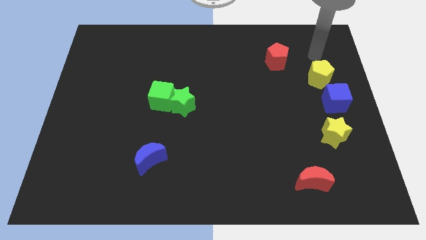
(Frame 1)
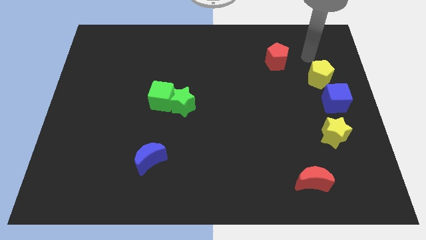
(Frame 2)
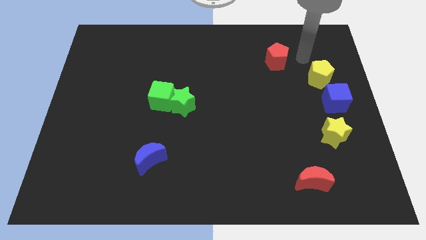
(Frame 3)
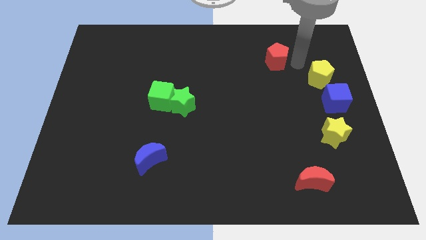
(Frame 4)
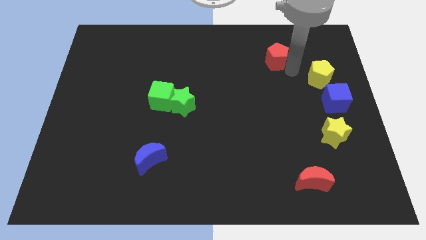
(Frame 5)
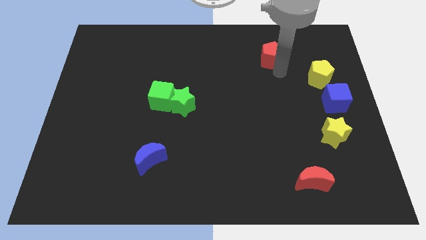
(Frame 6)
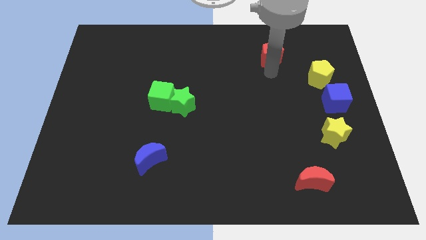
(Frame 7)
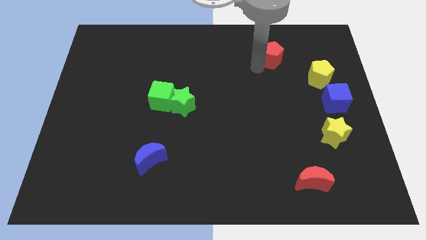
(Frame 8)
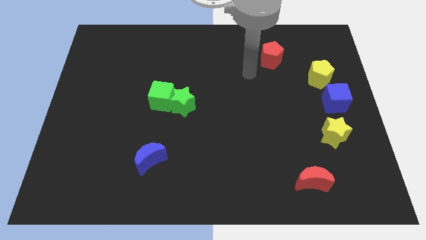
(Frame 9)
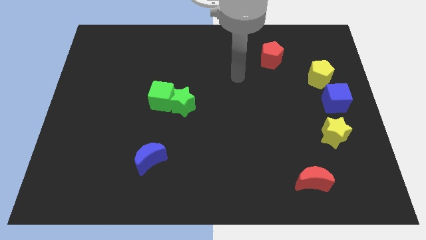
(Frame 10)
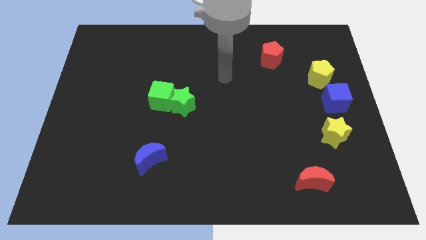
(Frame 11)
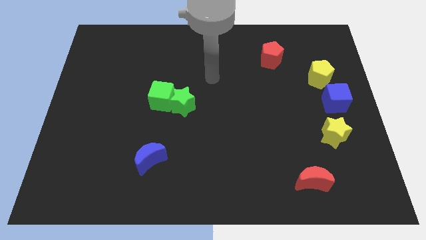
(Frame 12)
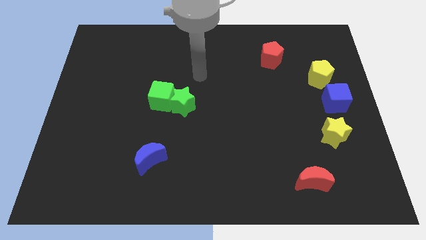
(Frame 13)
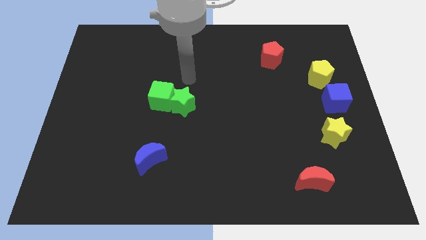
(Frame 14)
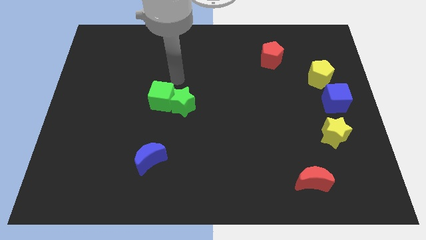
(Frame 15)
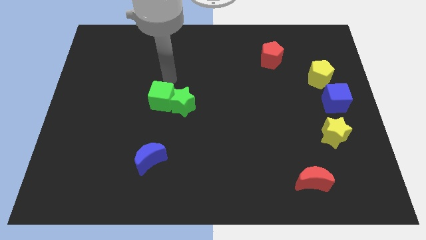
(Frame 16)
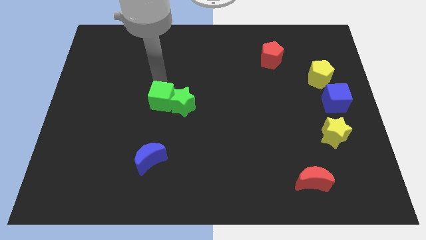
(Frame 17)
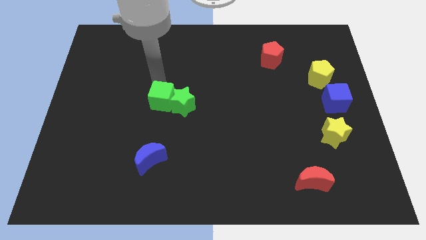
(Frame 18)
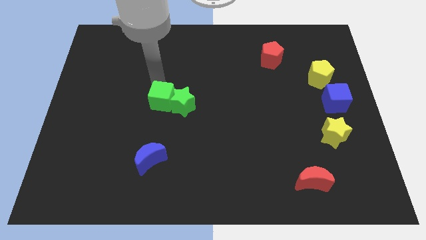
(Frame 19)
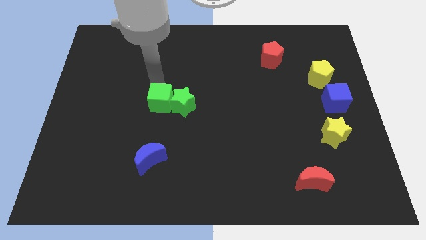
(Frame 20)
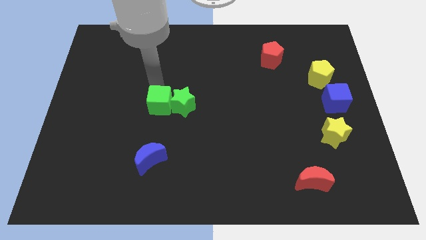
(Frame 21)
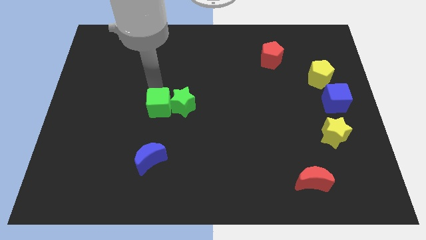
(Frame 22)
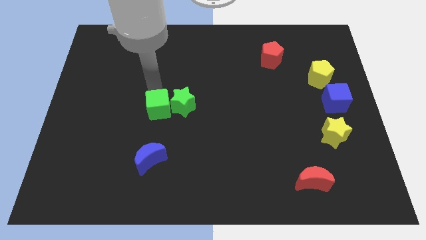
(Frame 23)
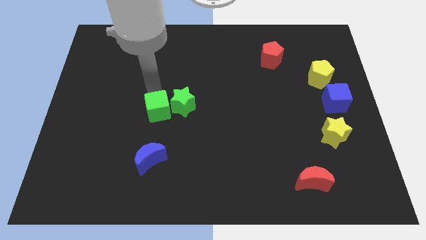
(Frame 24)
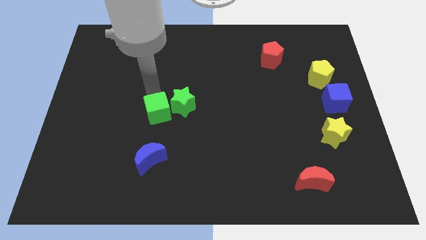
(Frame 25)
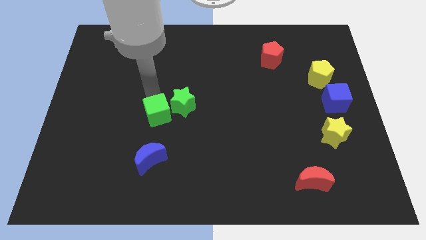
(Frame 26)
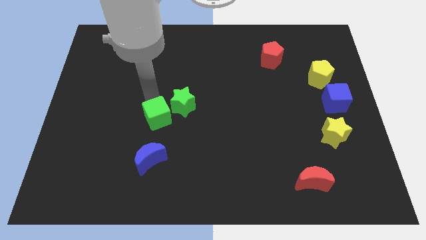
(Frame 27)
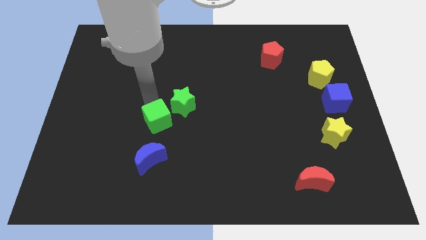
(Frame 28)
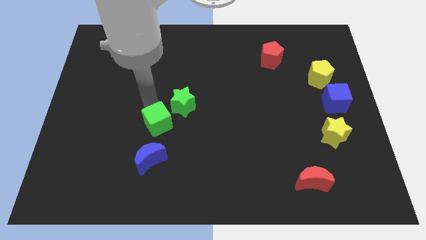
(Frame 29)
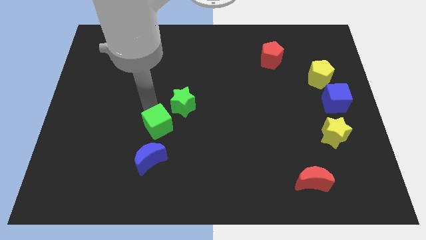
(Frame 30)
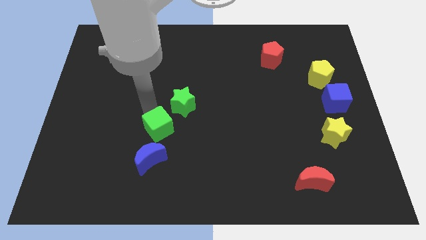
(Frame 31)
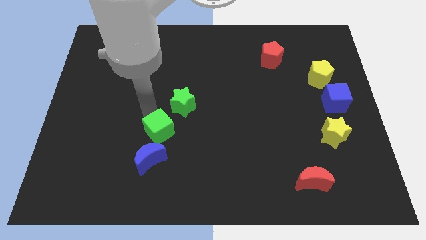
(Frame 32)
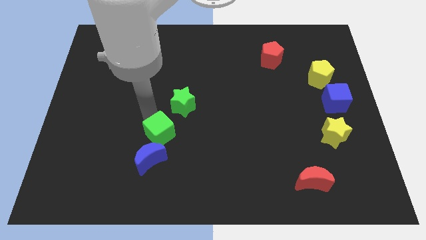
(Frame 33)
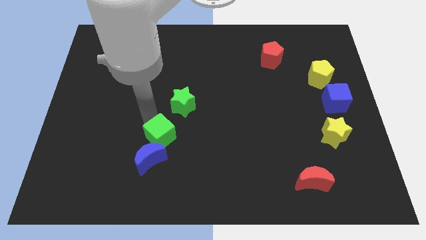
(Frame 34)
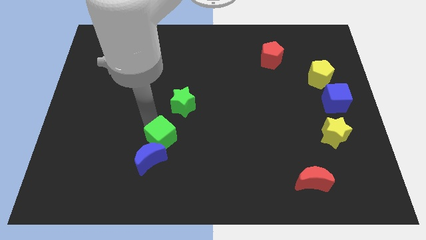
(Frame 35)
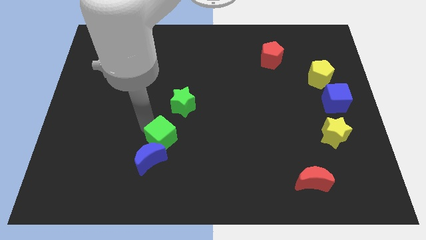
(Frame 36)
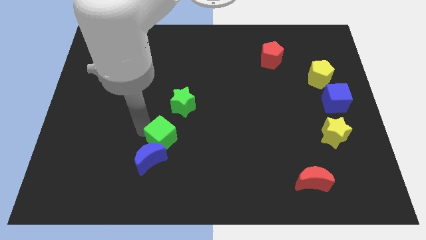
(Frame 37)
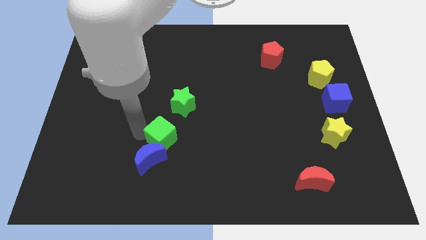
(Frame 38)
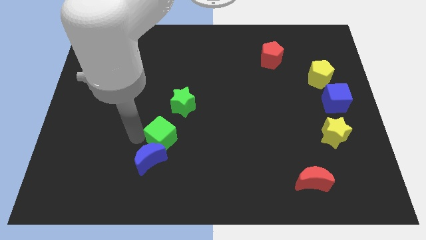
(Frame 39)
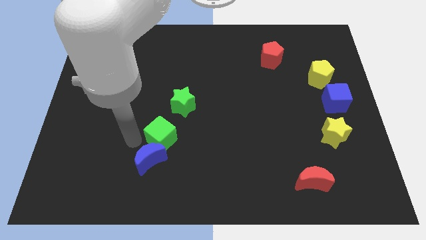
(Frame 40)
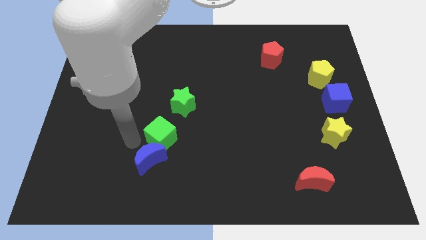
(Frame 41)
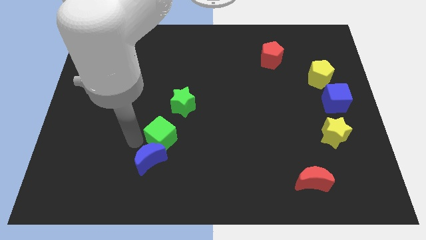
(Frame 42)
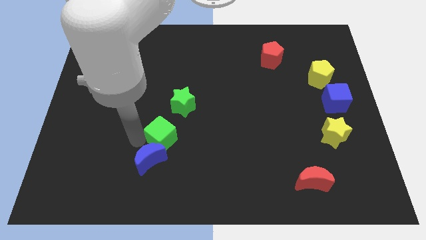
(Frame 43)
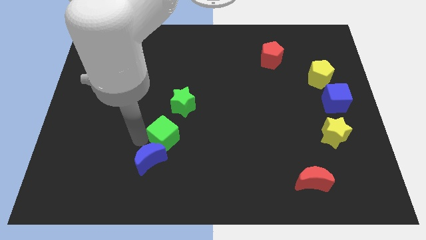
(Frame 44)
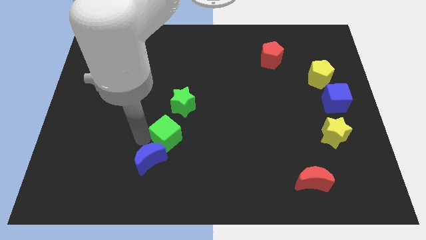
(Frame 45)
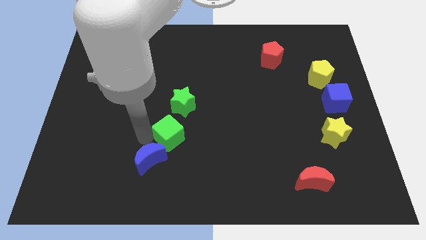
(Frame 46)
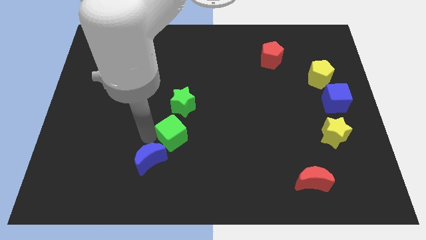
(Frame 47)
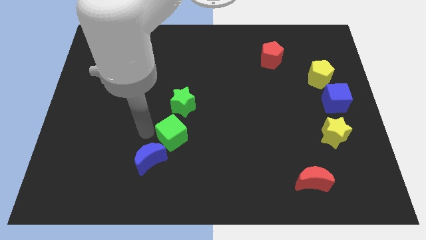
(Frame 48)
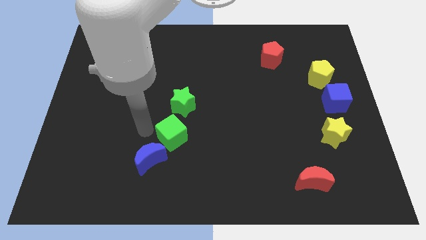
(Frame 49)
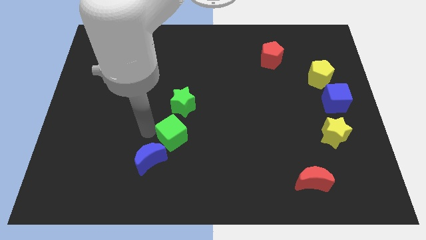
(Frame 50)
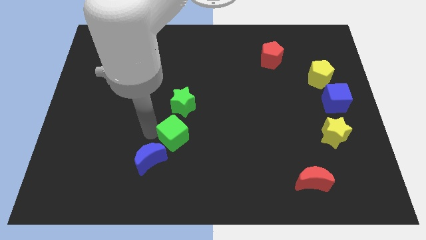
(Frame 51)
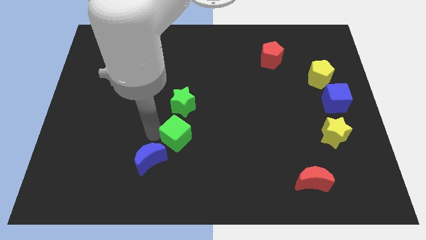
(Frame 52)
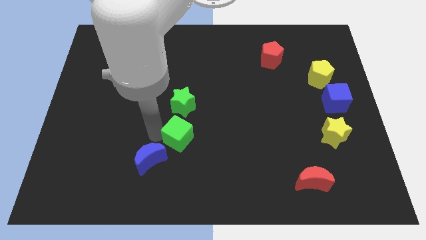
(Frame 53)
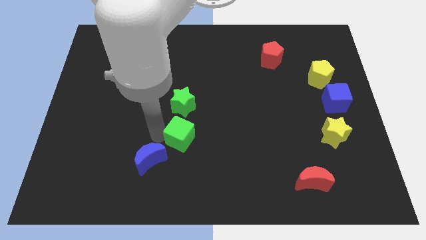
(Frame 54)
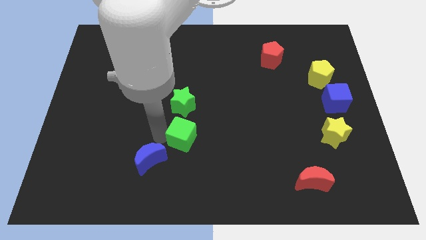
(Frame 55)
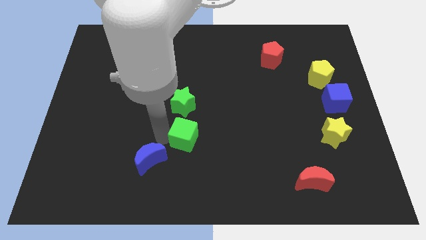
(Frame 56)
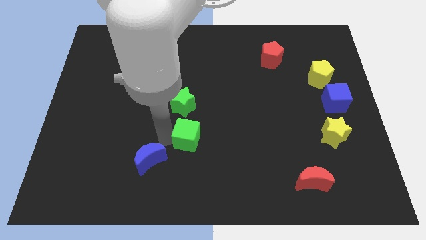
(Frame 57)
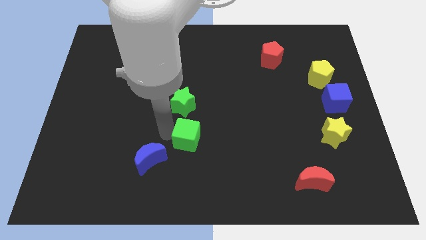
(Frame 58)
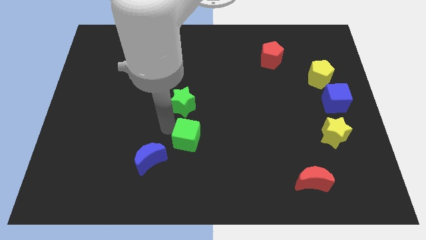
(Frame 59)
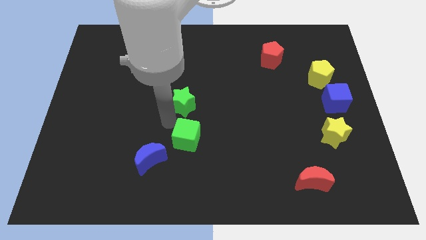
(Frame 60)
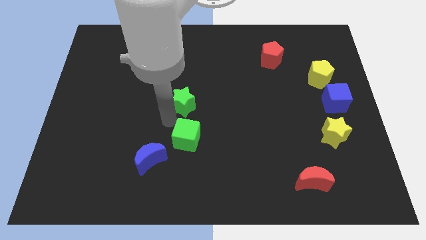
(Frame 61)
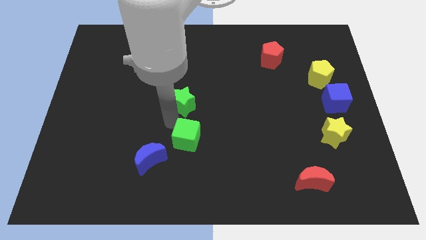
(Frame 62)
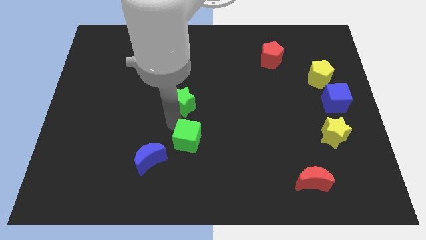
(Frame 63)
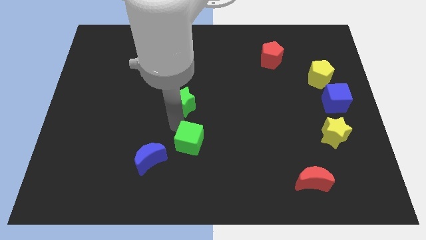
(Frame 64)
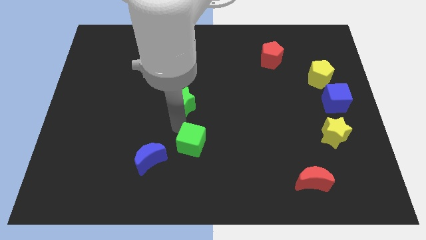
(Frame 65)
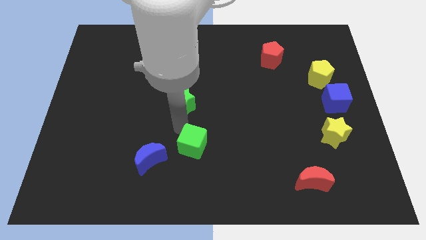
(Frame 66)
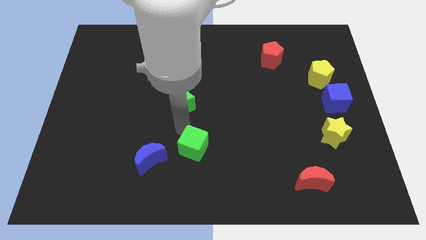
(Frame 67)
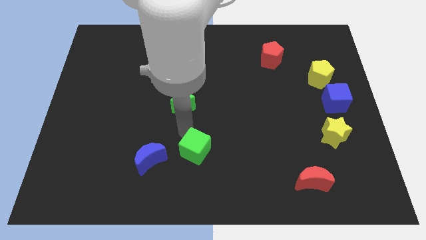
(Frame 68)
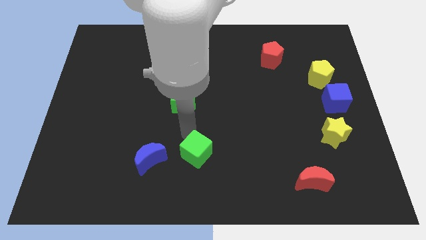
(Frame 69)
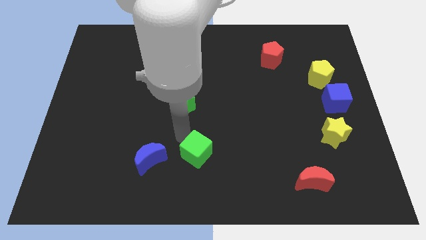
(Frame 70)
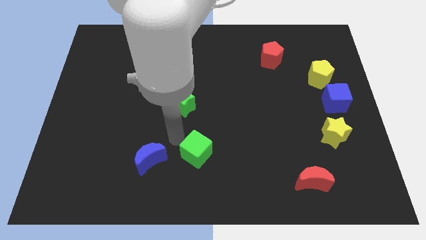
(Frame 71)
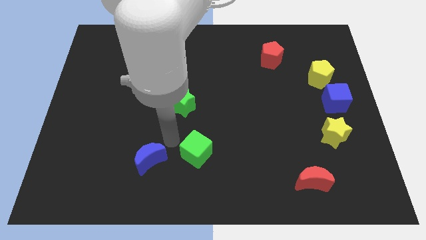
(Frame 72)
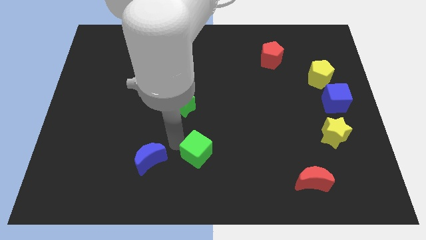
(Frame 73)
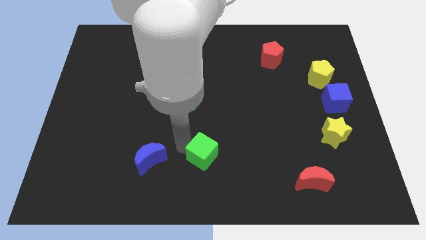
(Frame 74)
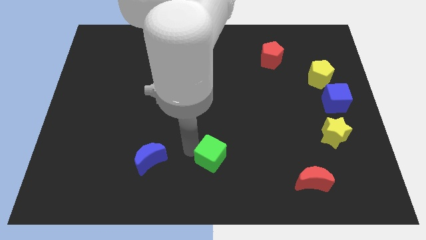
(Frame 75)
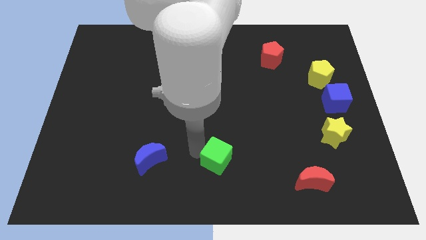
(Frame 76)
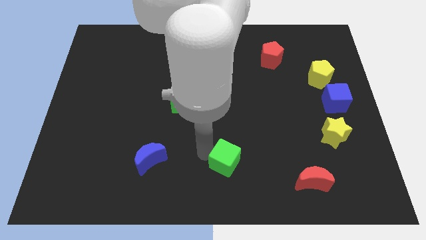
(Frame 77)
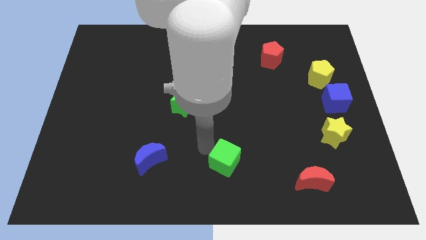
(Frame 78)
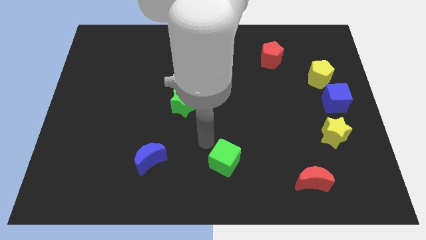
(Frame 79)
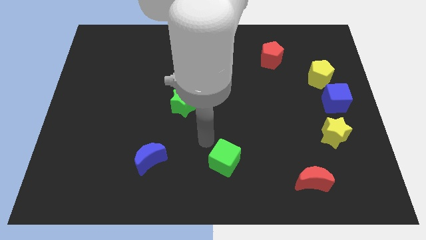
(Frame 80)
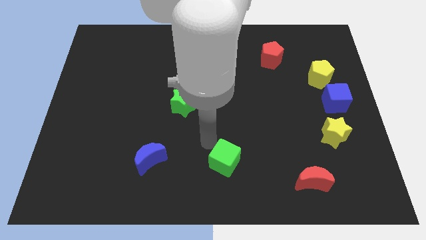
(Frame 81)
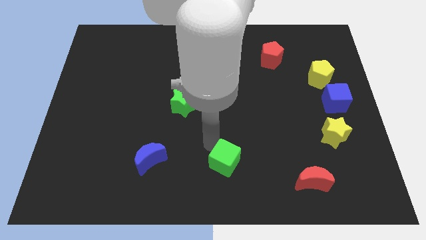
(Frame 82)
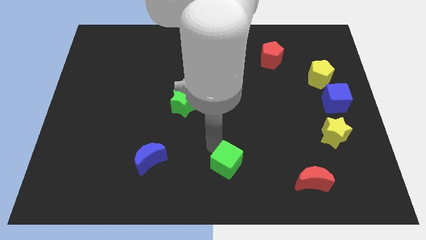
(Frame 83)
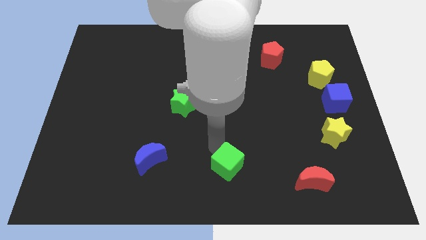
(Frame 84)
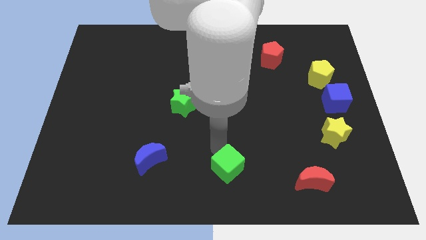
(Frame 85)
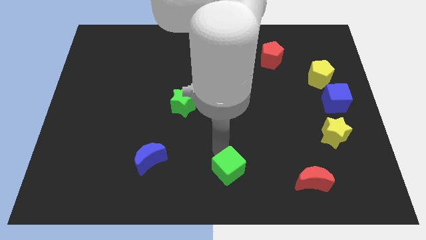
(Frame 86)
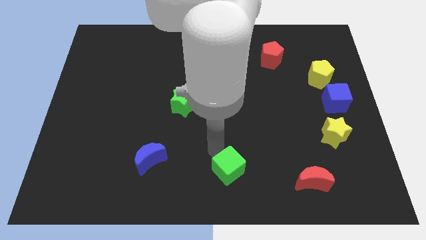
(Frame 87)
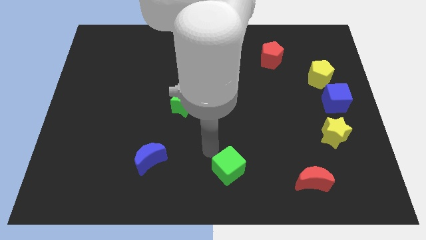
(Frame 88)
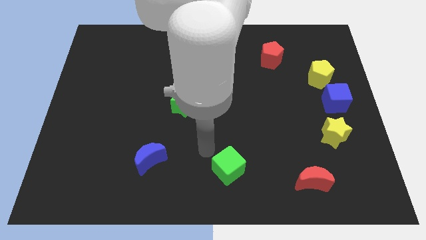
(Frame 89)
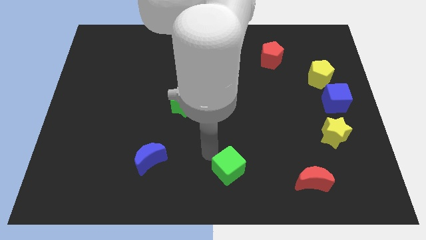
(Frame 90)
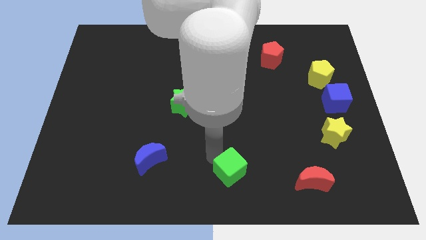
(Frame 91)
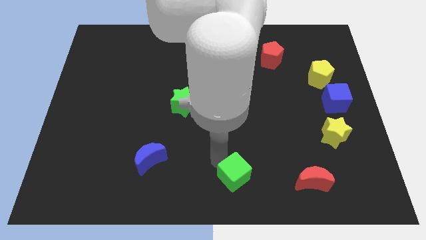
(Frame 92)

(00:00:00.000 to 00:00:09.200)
put the green cube to the left of the red moon
